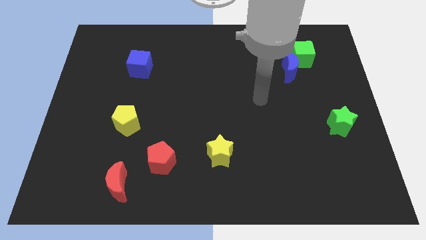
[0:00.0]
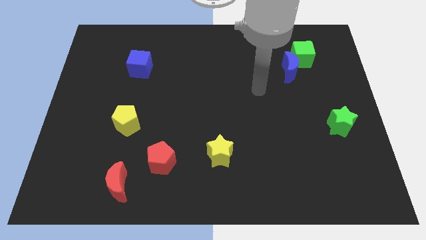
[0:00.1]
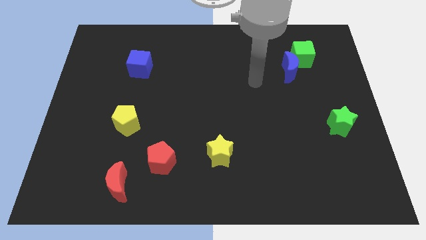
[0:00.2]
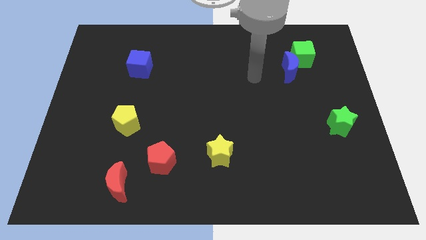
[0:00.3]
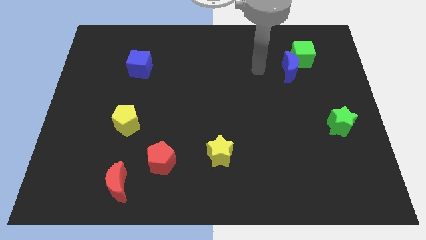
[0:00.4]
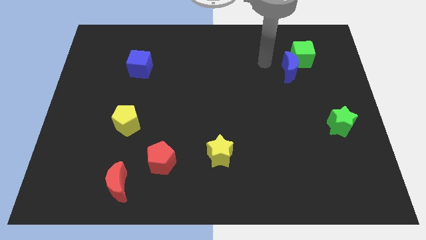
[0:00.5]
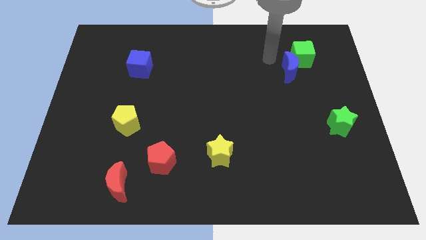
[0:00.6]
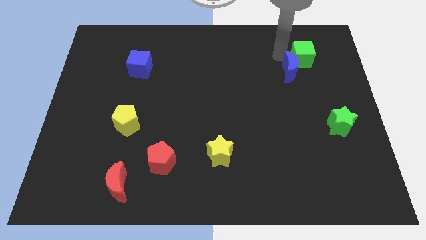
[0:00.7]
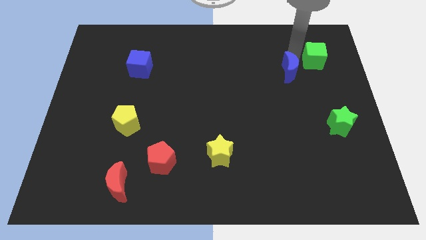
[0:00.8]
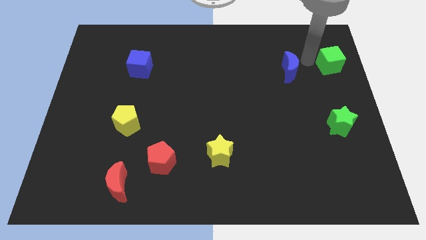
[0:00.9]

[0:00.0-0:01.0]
pull the blue moon apart from the green cube

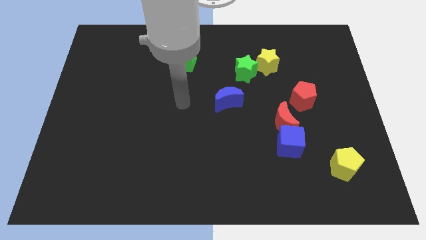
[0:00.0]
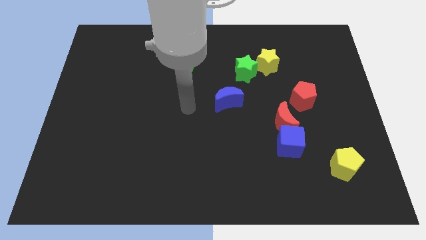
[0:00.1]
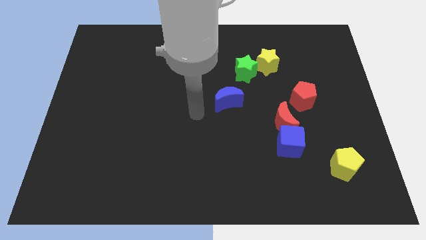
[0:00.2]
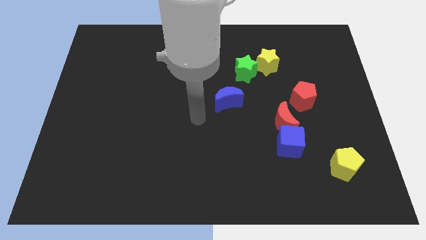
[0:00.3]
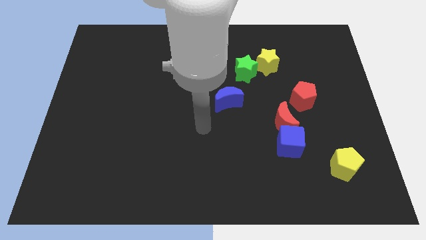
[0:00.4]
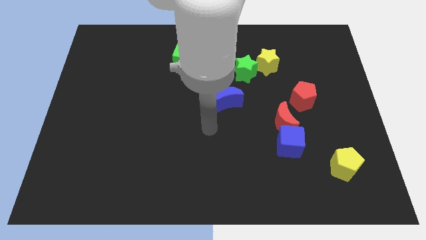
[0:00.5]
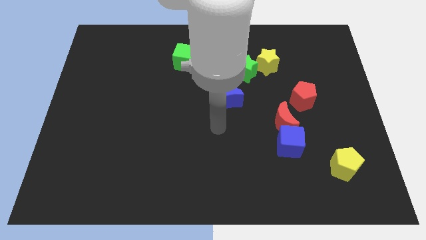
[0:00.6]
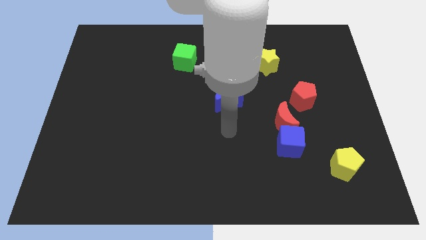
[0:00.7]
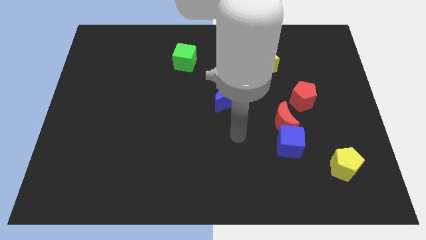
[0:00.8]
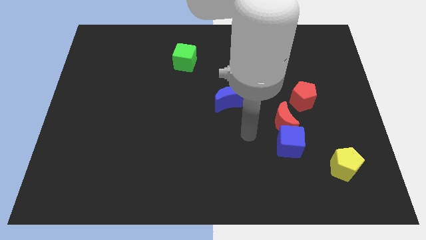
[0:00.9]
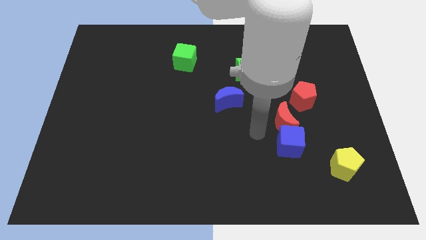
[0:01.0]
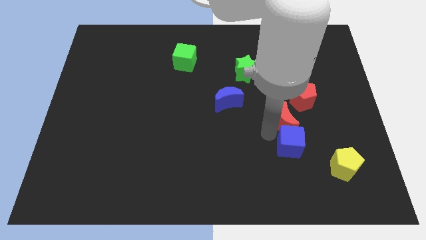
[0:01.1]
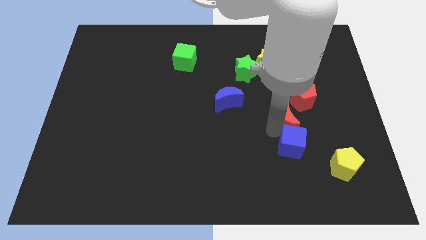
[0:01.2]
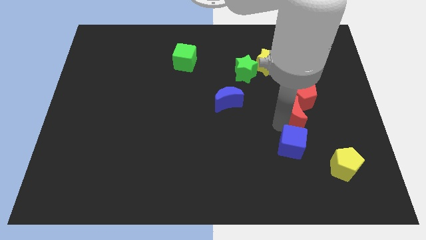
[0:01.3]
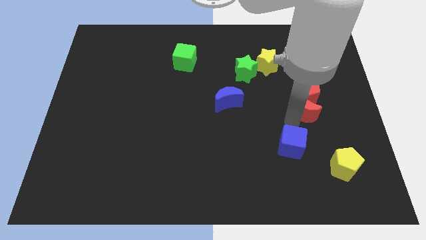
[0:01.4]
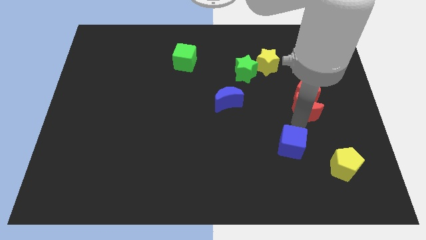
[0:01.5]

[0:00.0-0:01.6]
pull the blue cube apart from the red moon

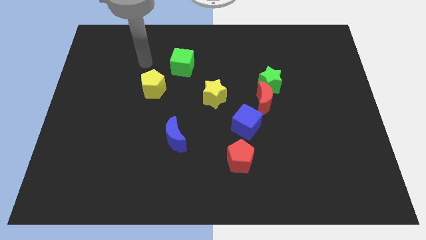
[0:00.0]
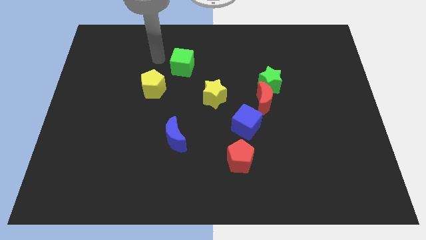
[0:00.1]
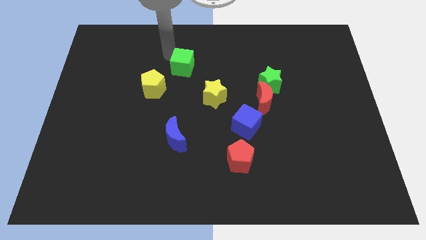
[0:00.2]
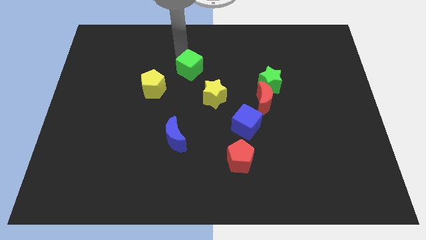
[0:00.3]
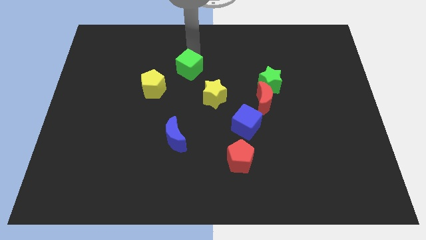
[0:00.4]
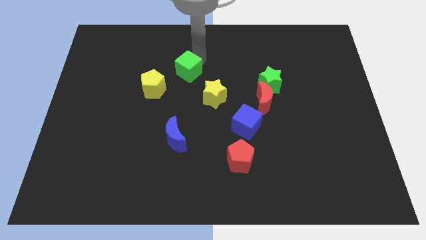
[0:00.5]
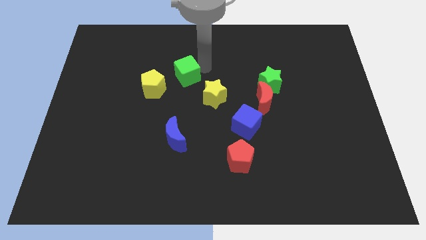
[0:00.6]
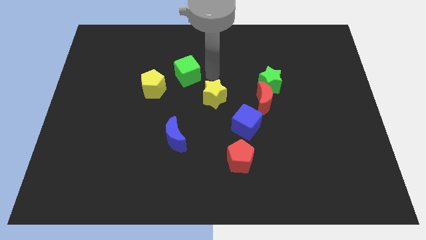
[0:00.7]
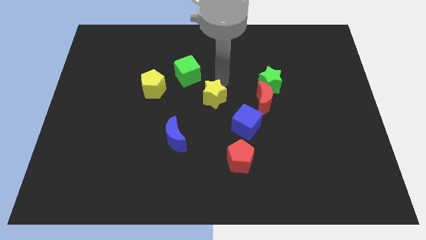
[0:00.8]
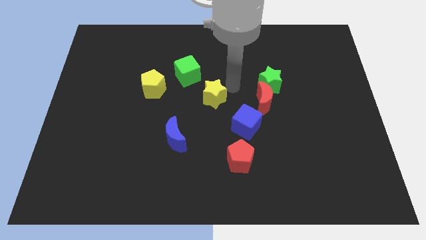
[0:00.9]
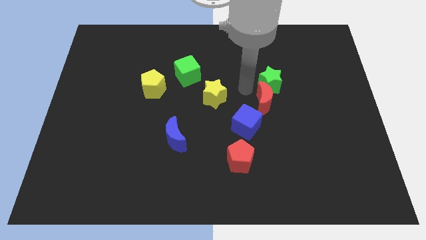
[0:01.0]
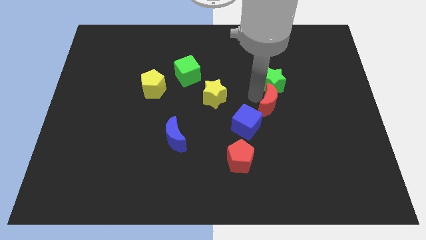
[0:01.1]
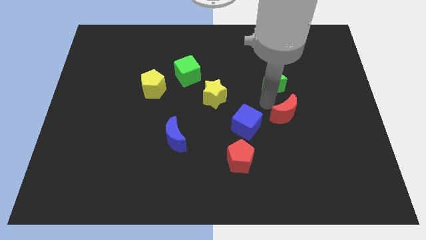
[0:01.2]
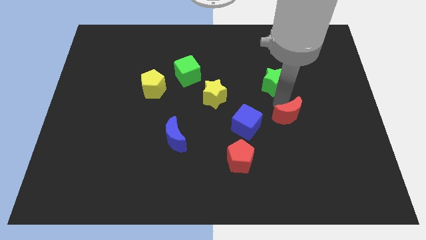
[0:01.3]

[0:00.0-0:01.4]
separate the green star from the red moon

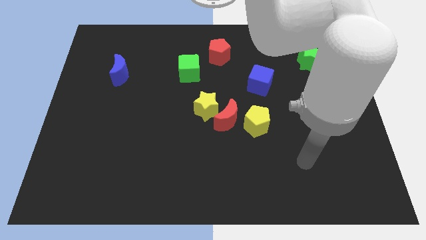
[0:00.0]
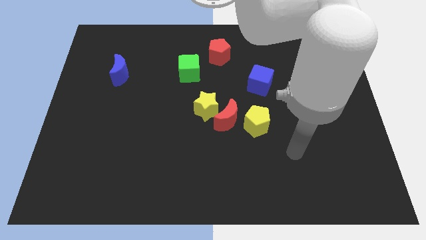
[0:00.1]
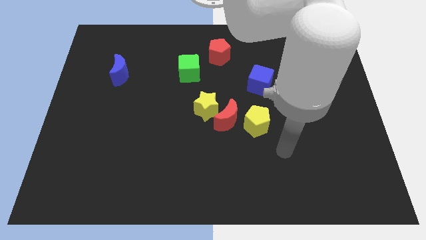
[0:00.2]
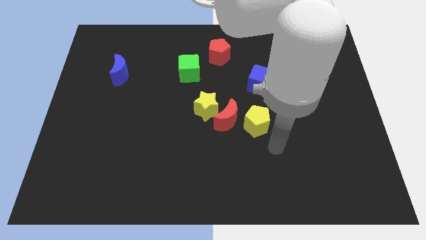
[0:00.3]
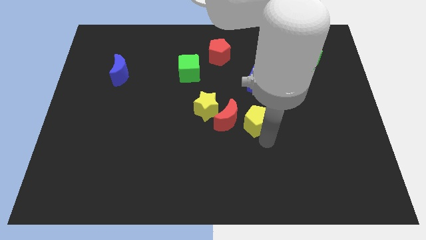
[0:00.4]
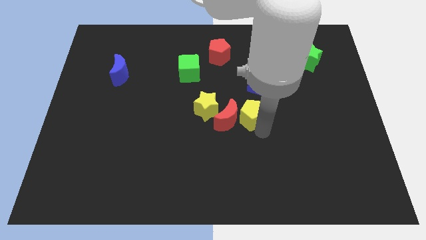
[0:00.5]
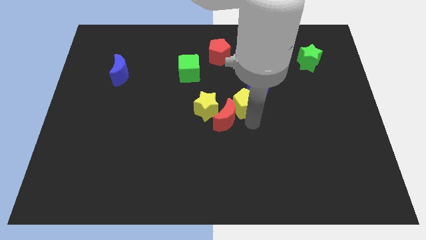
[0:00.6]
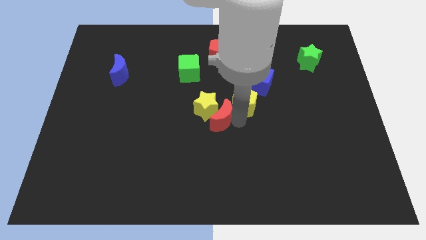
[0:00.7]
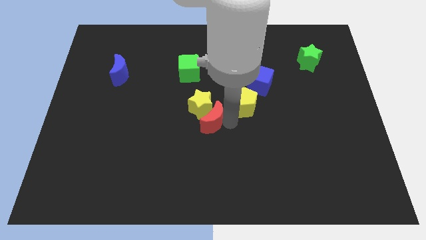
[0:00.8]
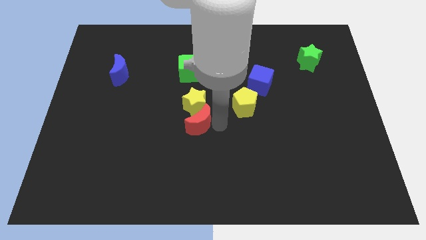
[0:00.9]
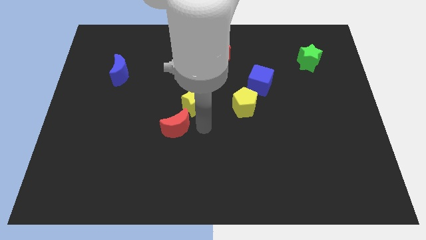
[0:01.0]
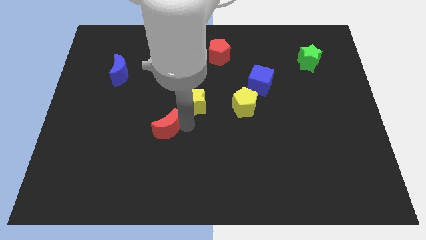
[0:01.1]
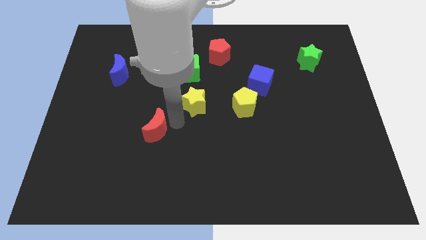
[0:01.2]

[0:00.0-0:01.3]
pull the yellow star apart from the red moon

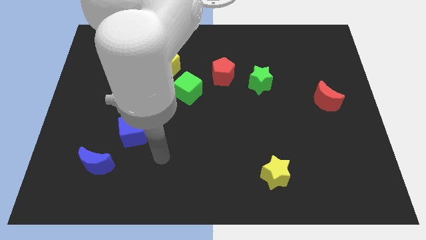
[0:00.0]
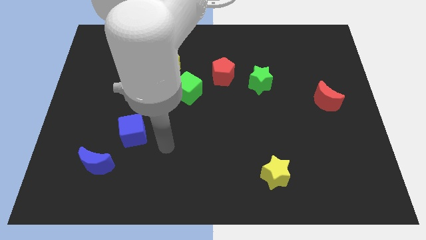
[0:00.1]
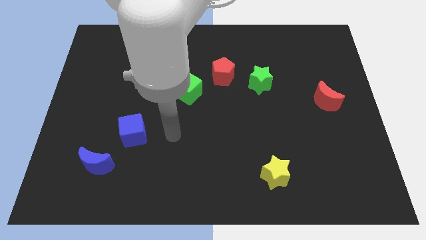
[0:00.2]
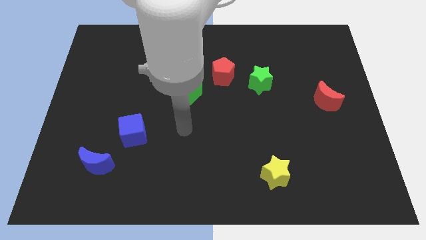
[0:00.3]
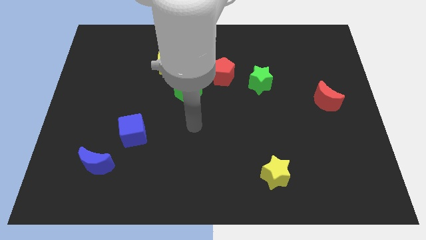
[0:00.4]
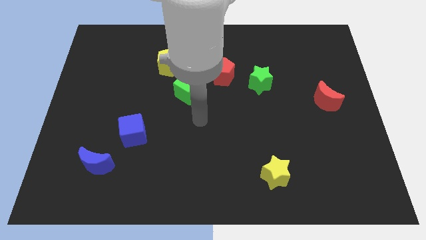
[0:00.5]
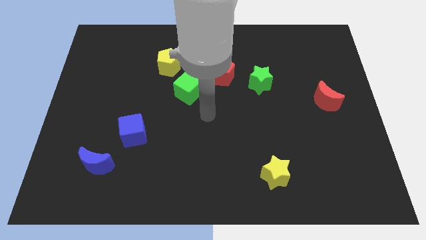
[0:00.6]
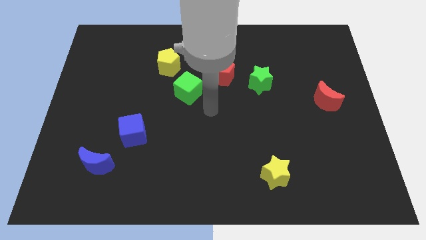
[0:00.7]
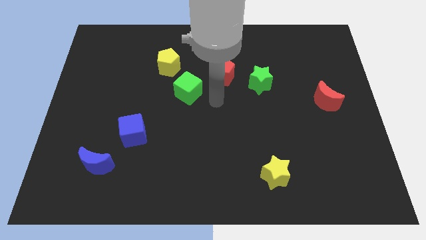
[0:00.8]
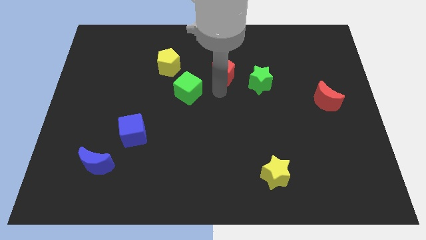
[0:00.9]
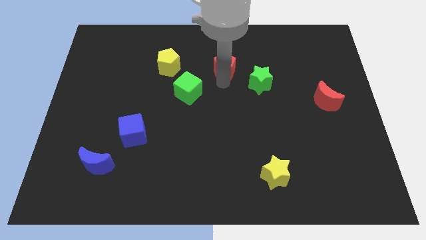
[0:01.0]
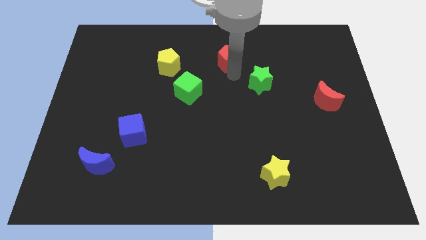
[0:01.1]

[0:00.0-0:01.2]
move the green star away from the red pentagon

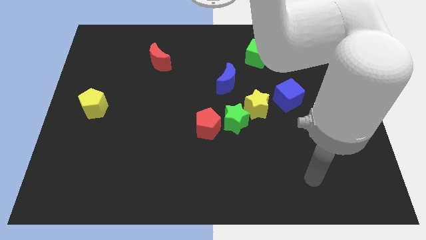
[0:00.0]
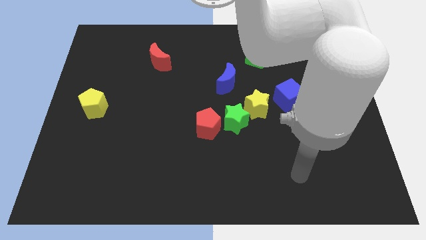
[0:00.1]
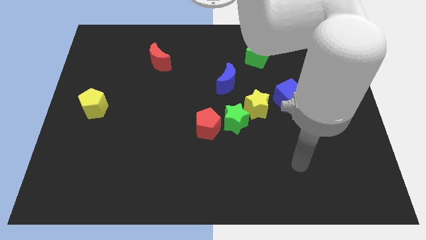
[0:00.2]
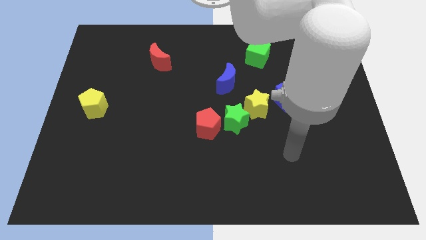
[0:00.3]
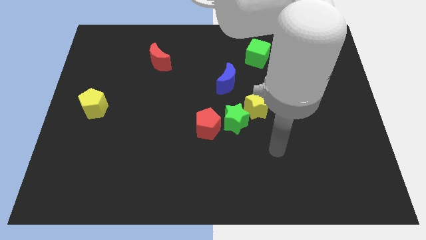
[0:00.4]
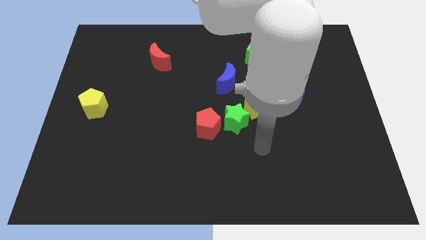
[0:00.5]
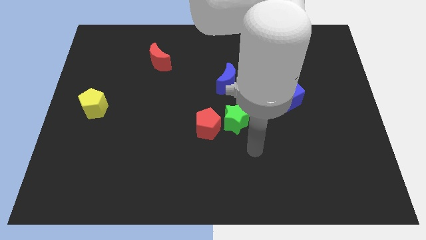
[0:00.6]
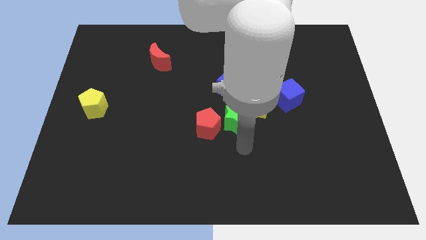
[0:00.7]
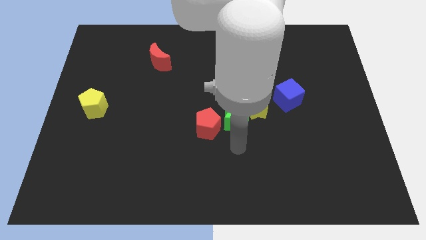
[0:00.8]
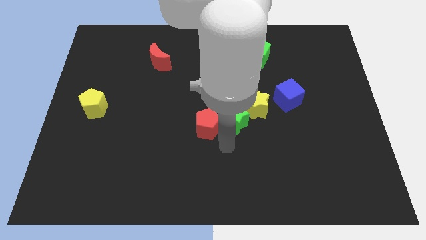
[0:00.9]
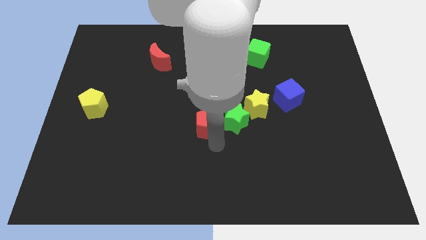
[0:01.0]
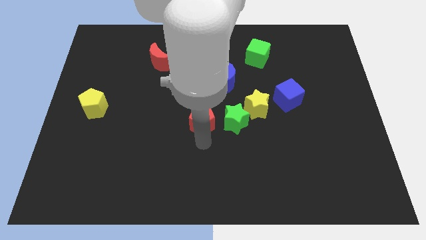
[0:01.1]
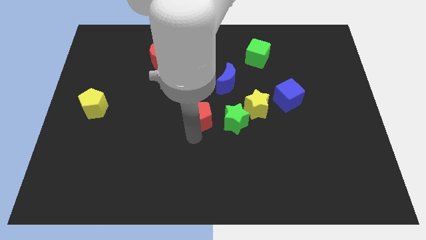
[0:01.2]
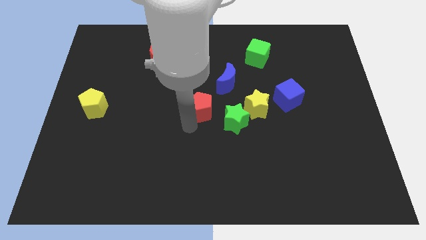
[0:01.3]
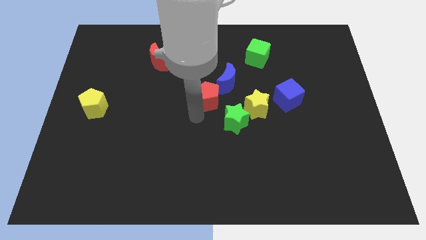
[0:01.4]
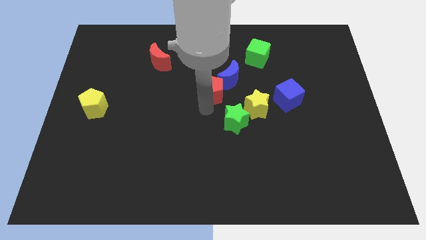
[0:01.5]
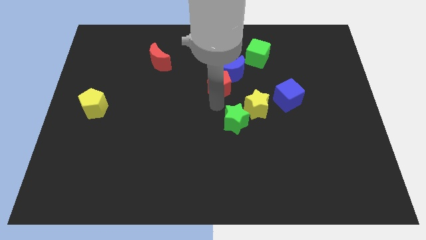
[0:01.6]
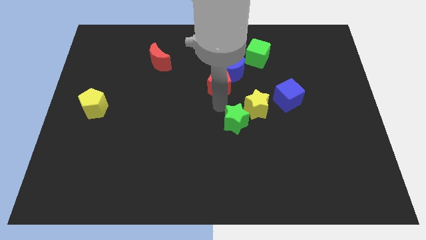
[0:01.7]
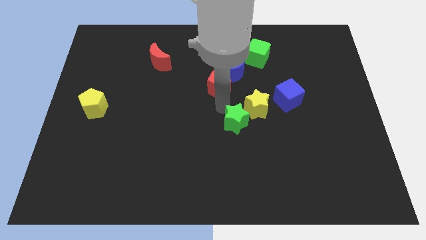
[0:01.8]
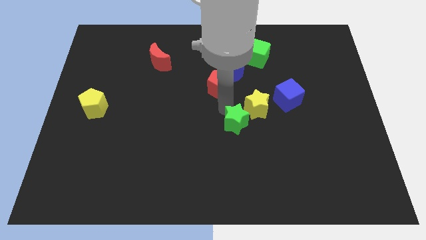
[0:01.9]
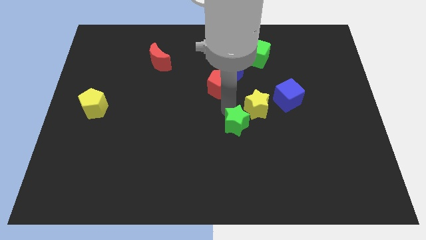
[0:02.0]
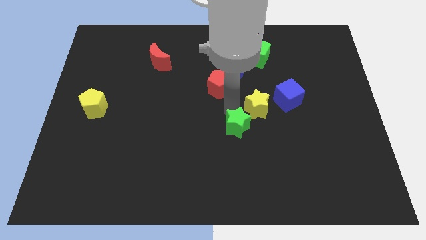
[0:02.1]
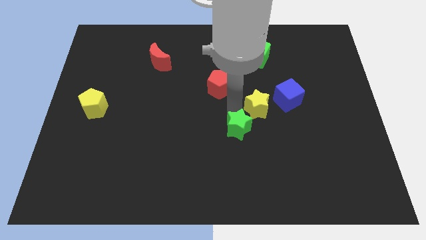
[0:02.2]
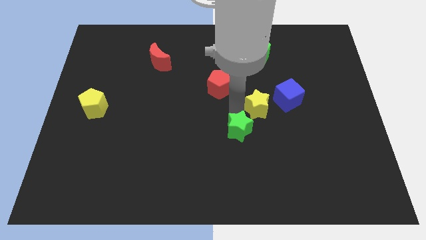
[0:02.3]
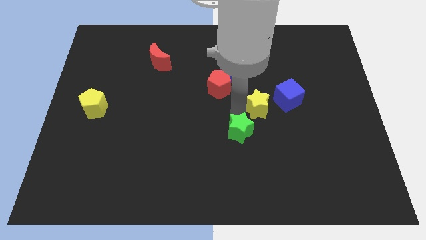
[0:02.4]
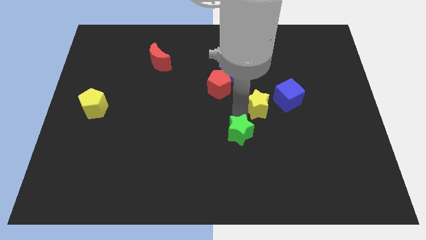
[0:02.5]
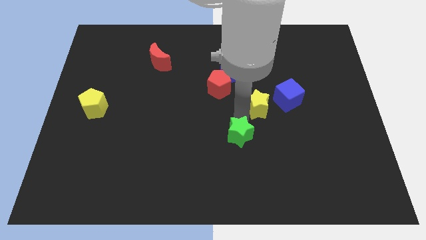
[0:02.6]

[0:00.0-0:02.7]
separate the green star from the yellow star and red pentagon
